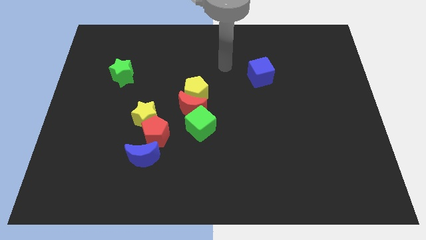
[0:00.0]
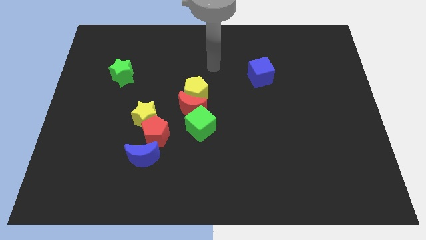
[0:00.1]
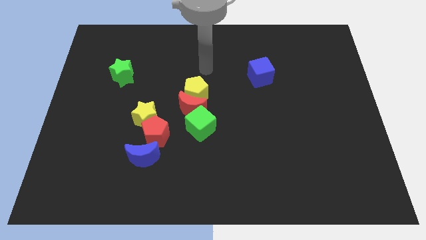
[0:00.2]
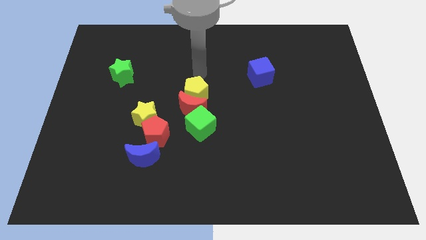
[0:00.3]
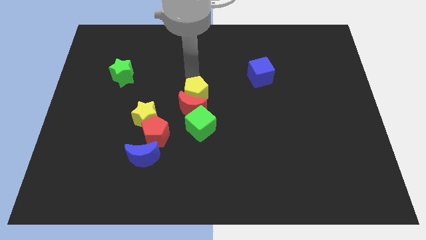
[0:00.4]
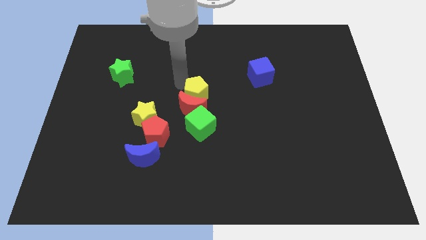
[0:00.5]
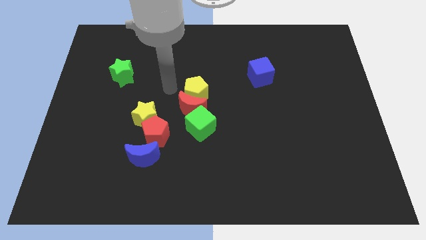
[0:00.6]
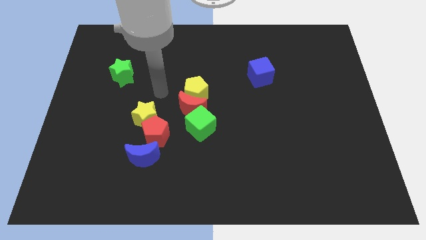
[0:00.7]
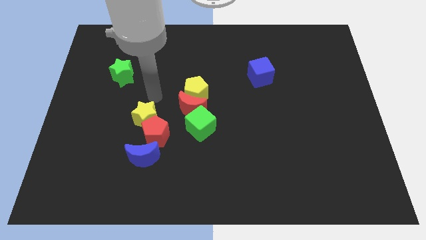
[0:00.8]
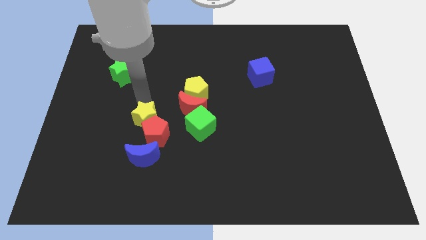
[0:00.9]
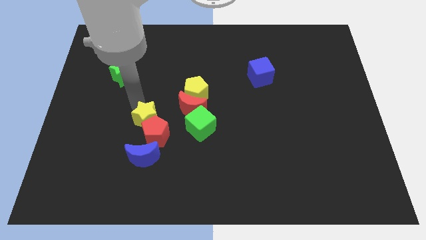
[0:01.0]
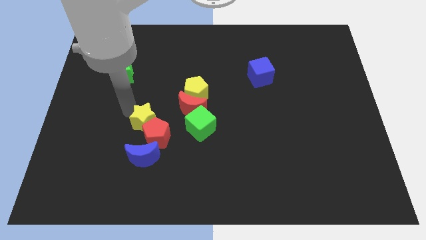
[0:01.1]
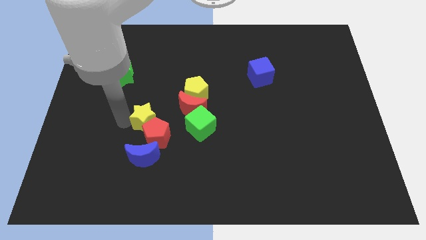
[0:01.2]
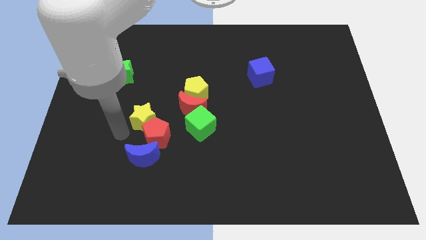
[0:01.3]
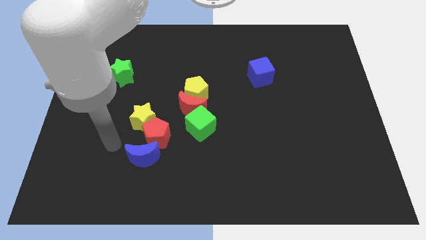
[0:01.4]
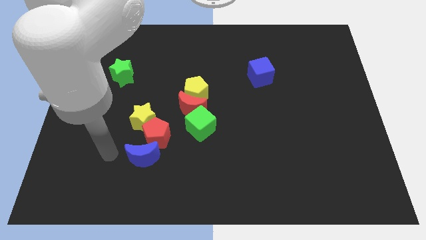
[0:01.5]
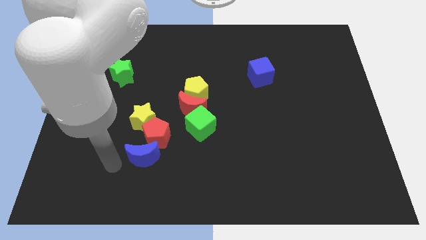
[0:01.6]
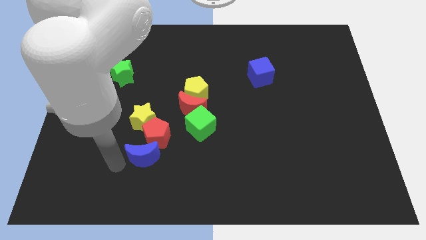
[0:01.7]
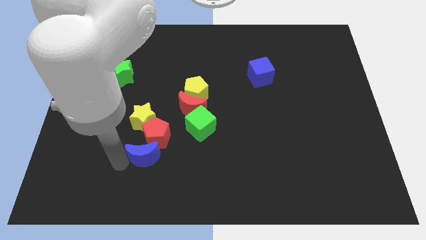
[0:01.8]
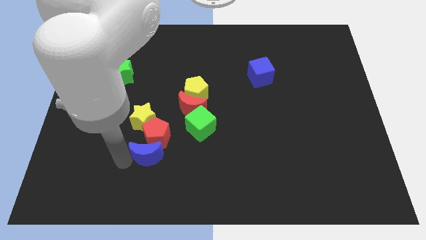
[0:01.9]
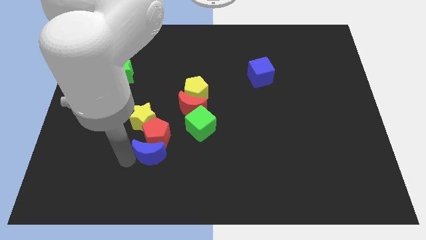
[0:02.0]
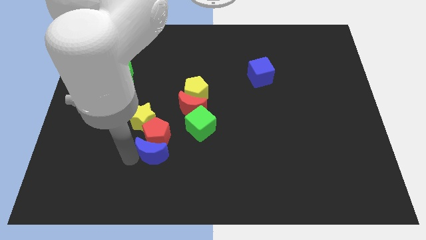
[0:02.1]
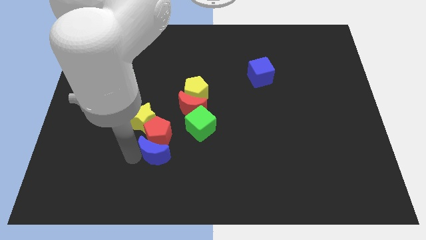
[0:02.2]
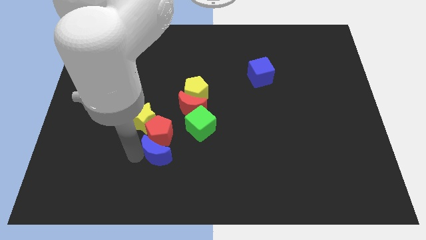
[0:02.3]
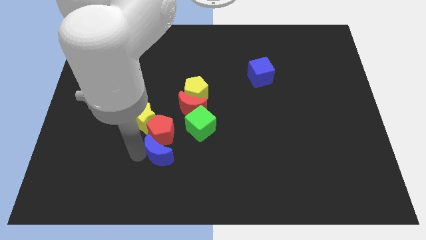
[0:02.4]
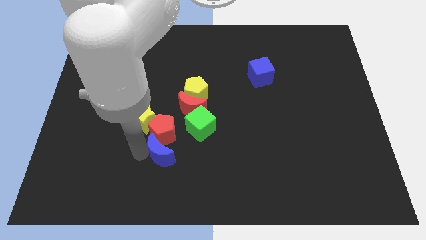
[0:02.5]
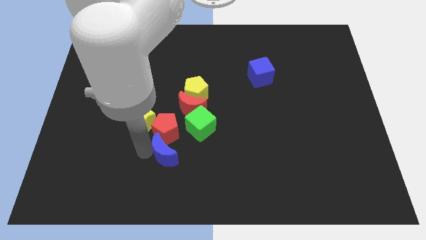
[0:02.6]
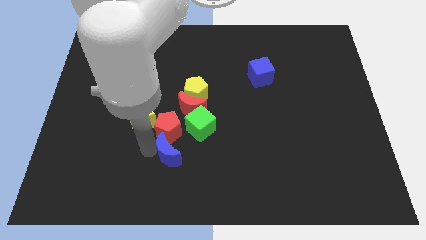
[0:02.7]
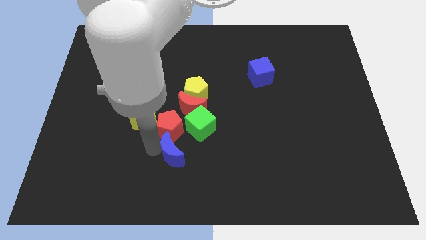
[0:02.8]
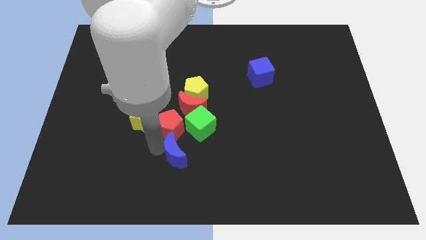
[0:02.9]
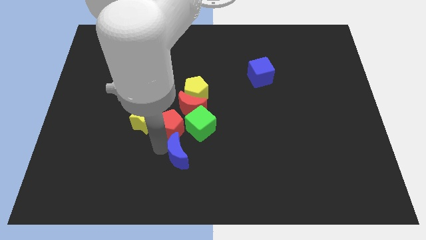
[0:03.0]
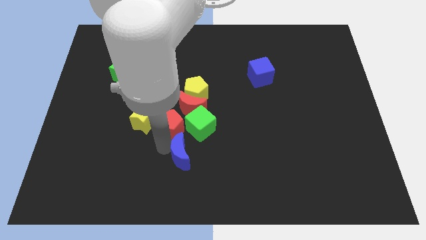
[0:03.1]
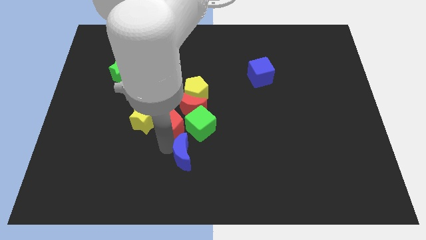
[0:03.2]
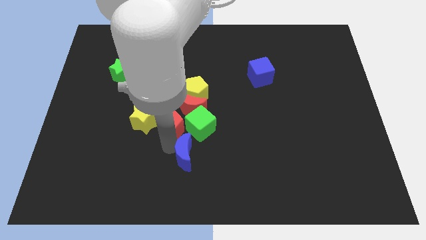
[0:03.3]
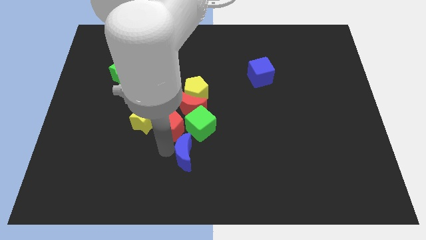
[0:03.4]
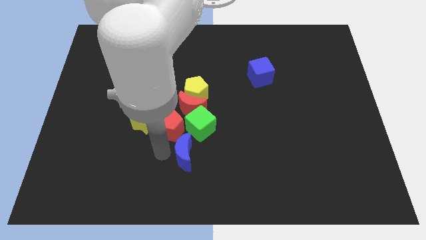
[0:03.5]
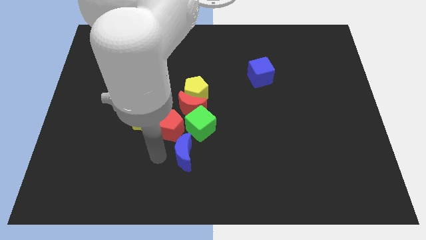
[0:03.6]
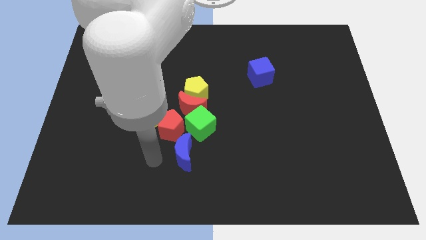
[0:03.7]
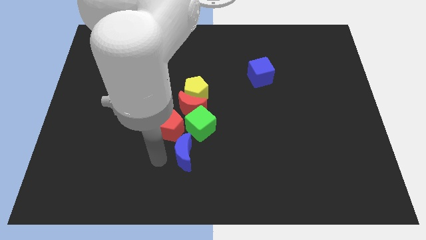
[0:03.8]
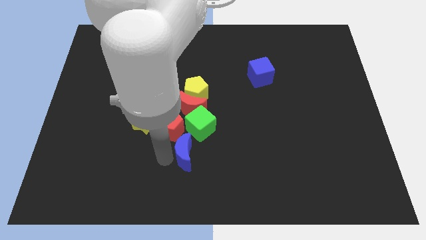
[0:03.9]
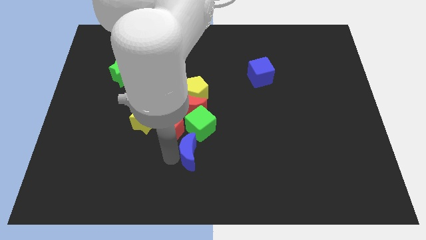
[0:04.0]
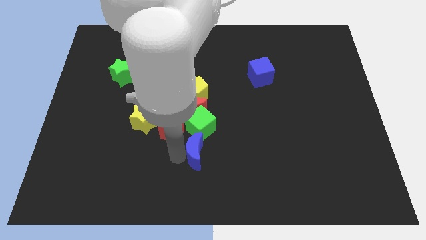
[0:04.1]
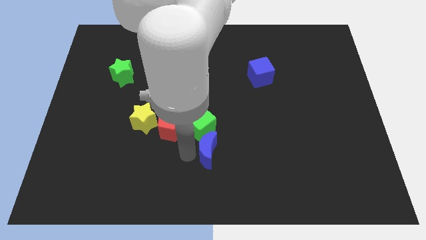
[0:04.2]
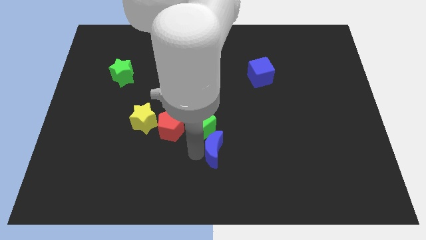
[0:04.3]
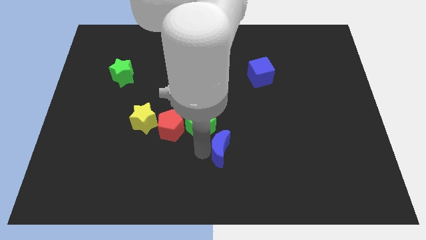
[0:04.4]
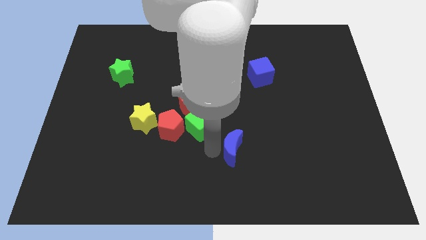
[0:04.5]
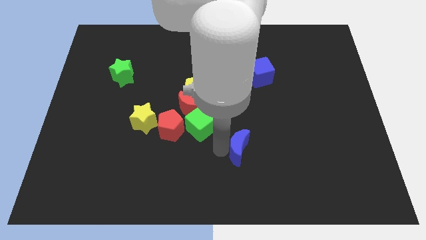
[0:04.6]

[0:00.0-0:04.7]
slide the blue moon to the right

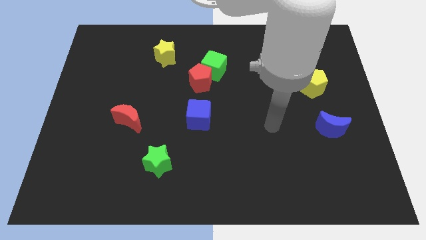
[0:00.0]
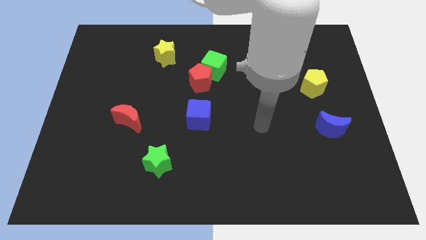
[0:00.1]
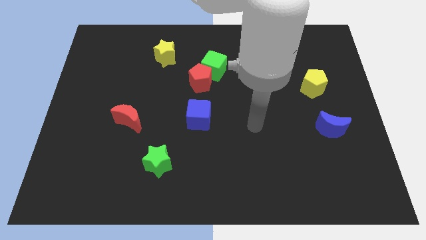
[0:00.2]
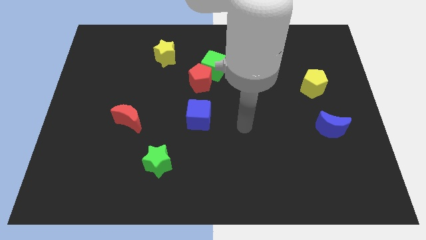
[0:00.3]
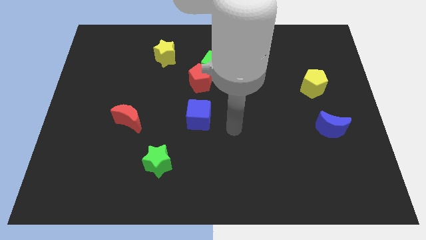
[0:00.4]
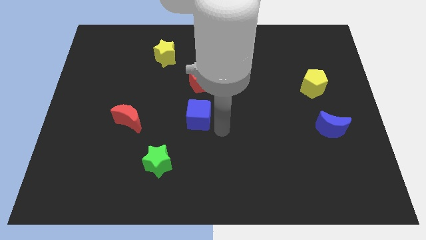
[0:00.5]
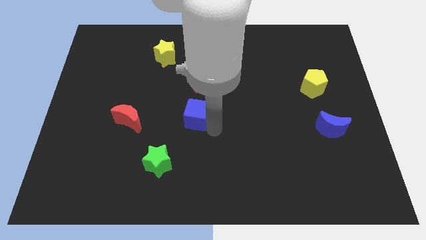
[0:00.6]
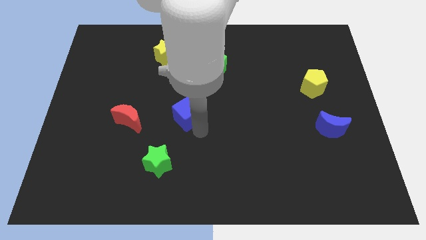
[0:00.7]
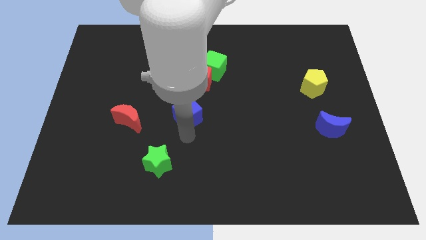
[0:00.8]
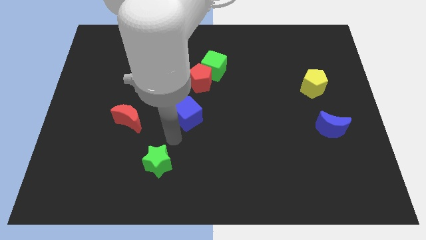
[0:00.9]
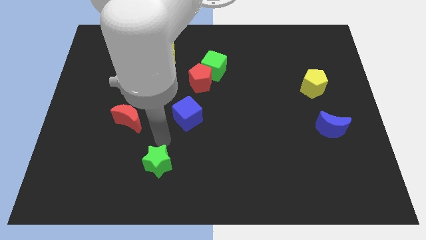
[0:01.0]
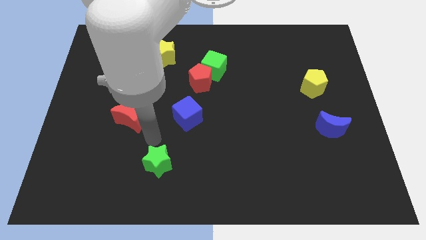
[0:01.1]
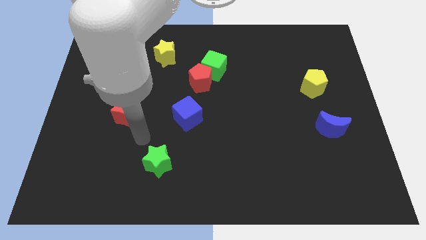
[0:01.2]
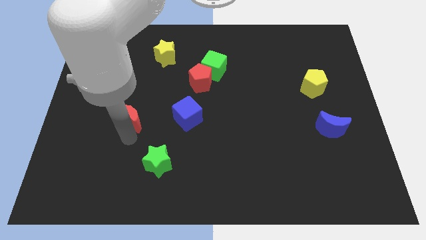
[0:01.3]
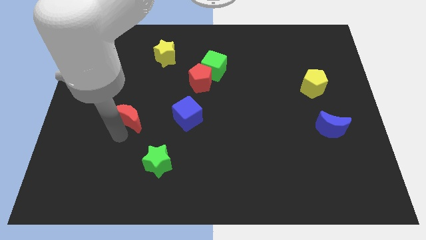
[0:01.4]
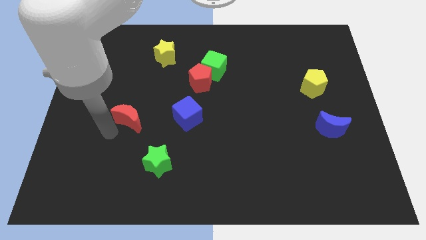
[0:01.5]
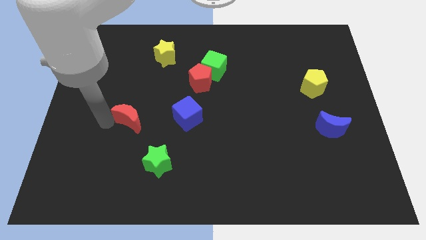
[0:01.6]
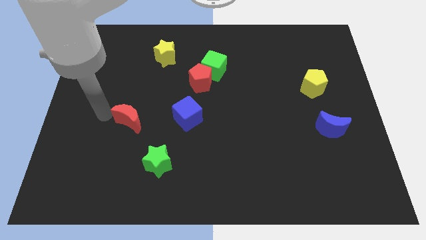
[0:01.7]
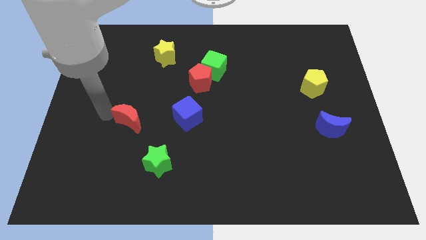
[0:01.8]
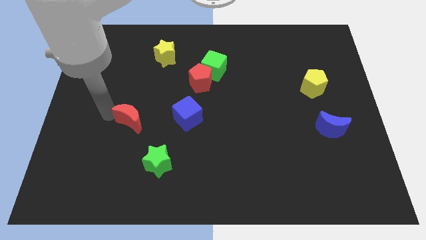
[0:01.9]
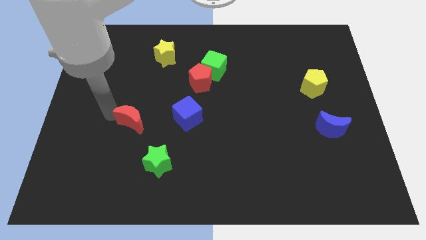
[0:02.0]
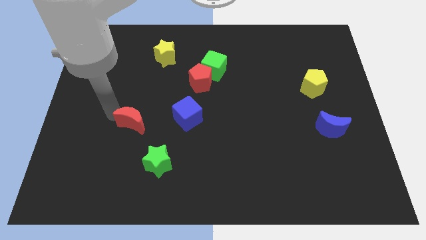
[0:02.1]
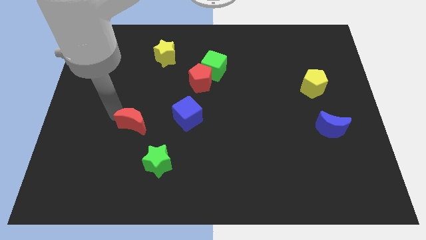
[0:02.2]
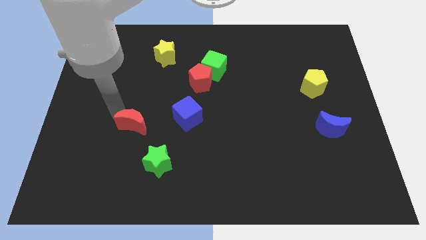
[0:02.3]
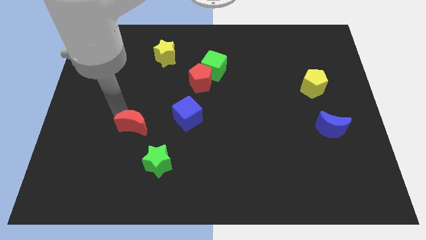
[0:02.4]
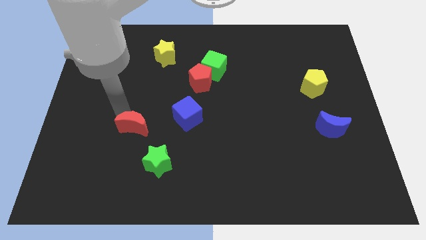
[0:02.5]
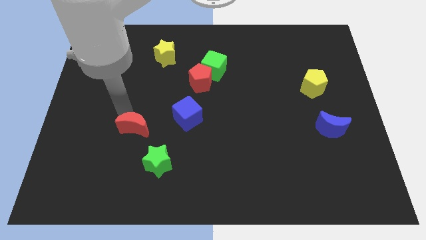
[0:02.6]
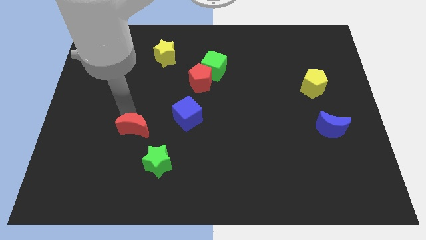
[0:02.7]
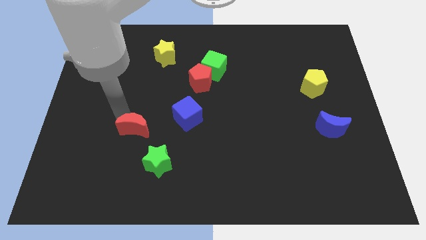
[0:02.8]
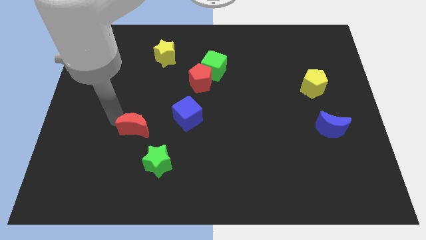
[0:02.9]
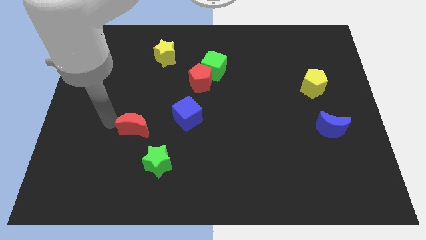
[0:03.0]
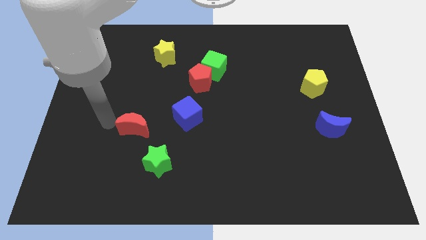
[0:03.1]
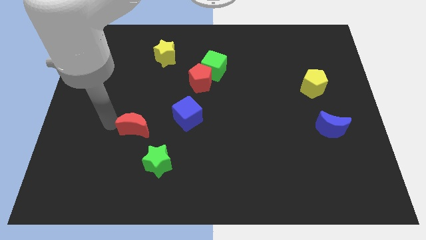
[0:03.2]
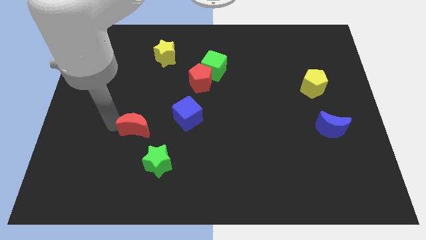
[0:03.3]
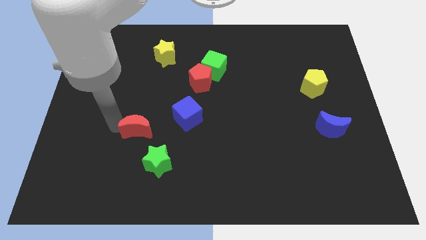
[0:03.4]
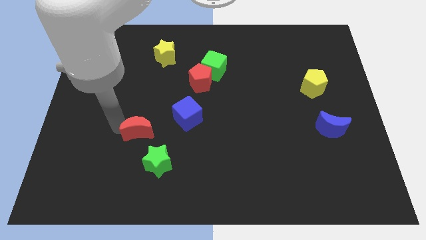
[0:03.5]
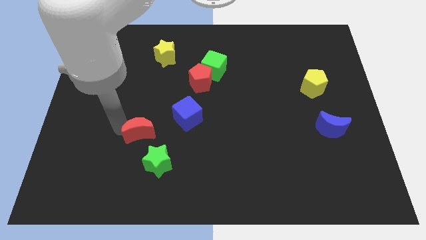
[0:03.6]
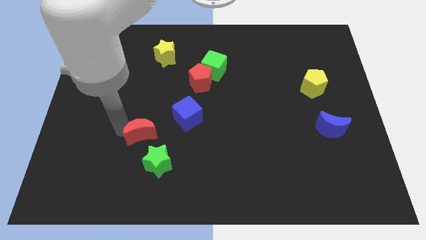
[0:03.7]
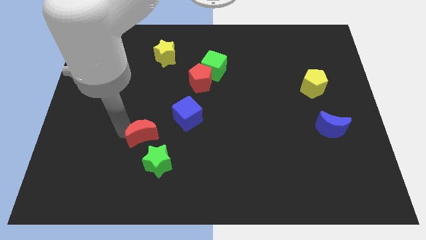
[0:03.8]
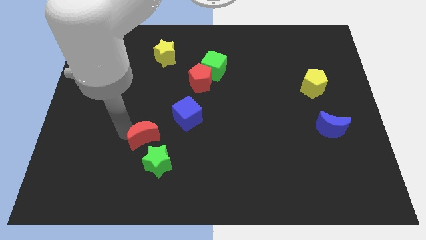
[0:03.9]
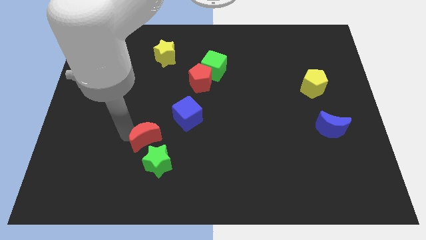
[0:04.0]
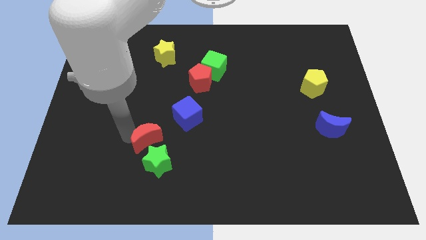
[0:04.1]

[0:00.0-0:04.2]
slightly slide the red moon down and to the right
